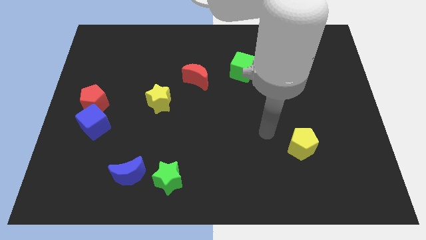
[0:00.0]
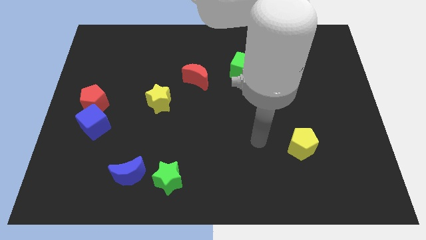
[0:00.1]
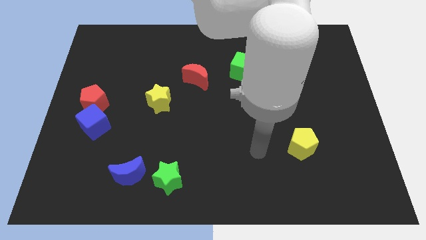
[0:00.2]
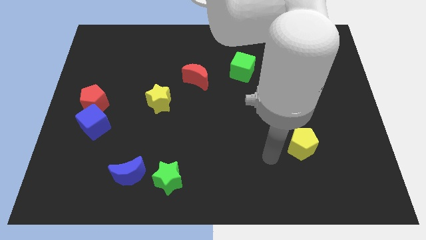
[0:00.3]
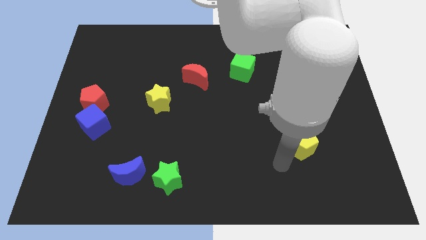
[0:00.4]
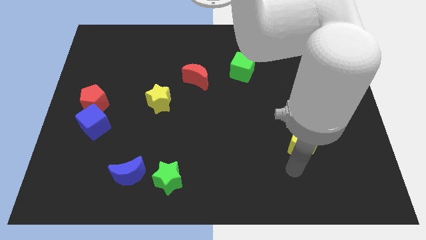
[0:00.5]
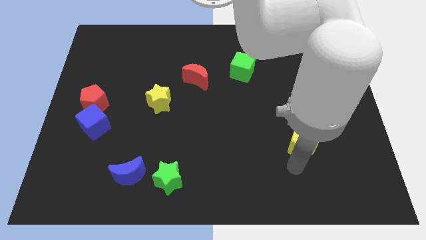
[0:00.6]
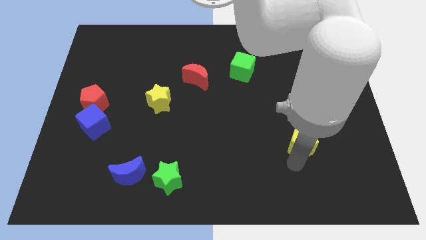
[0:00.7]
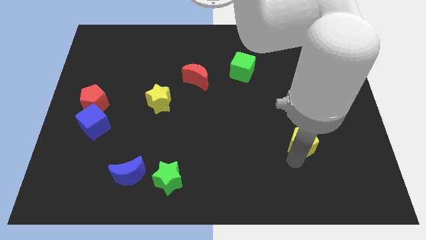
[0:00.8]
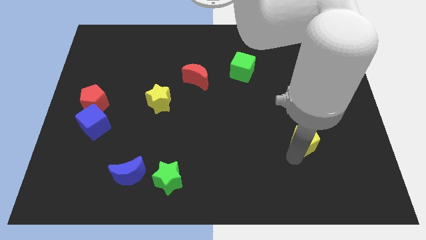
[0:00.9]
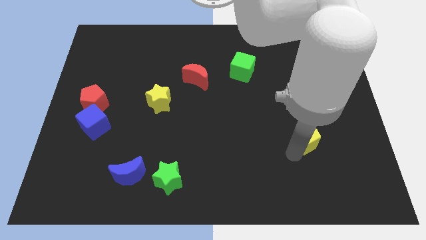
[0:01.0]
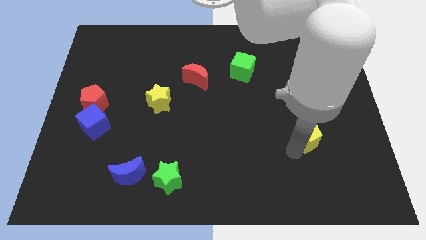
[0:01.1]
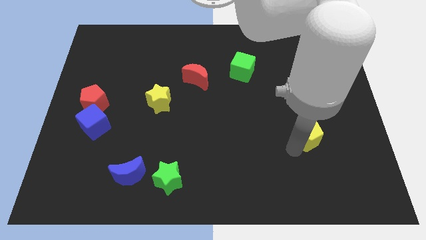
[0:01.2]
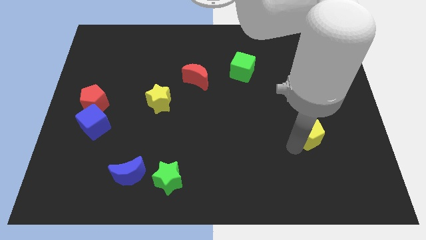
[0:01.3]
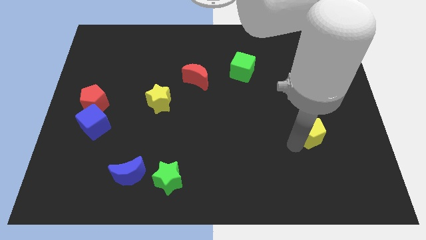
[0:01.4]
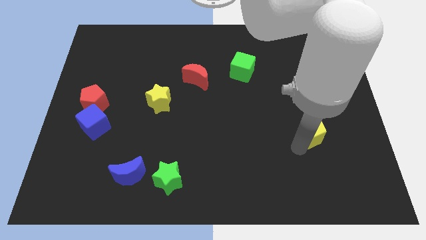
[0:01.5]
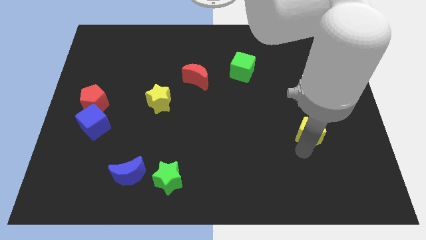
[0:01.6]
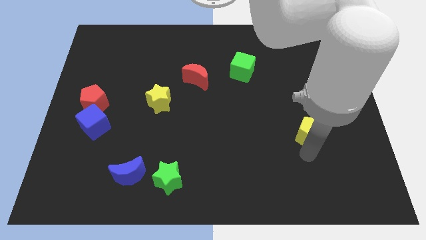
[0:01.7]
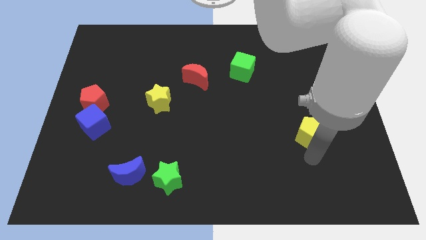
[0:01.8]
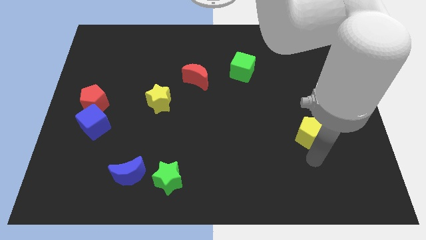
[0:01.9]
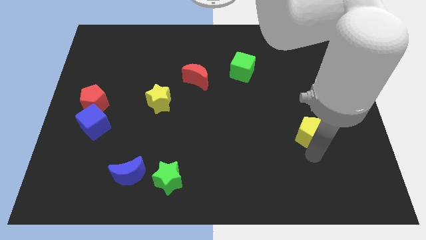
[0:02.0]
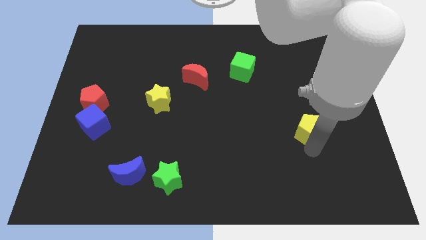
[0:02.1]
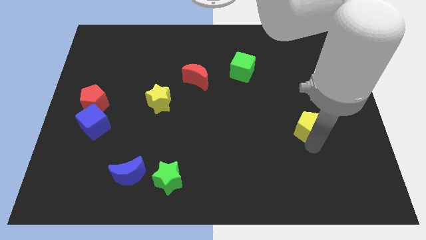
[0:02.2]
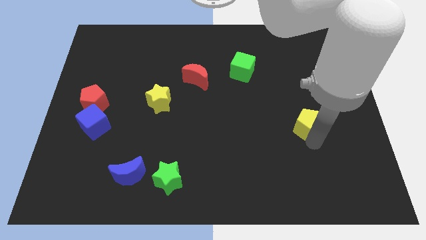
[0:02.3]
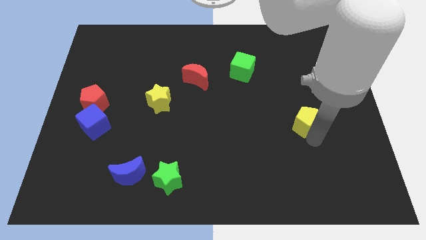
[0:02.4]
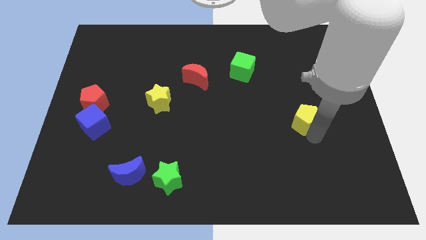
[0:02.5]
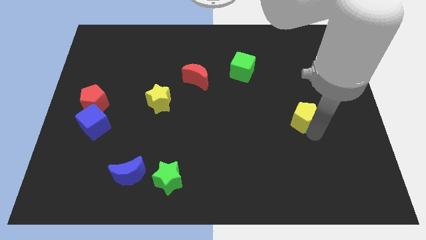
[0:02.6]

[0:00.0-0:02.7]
move the yellow pentagon slightly up

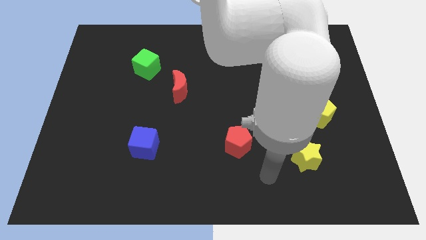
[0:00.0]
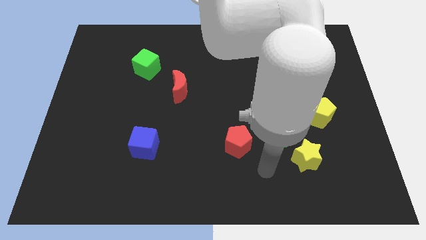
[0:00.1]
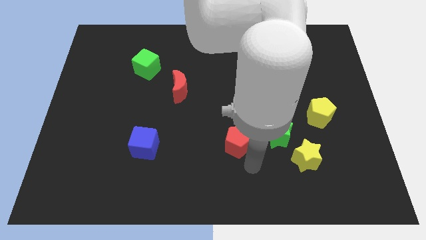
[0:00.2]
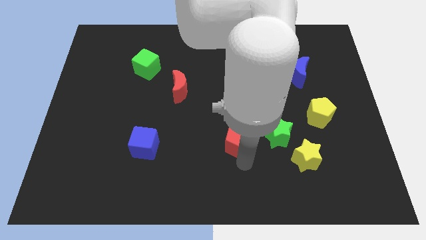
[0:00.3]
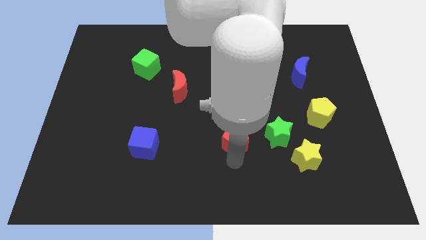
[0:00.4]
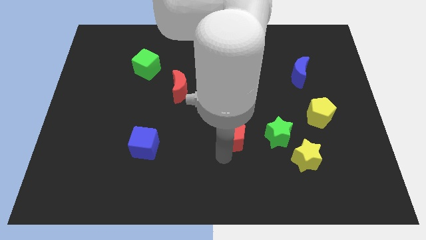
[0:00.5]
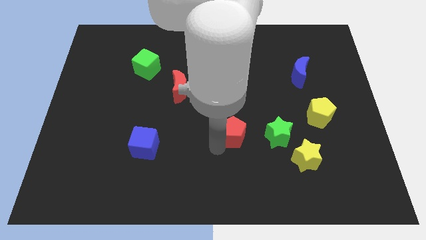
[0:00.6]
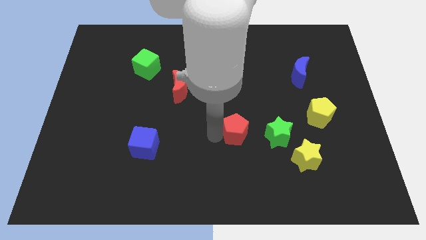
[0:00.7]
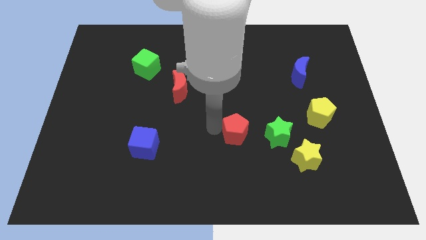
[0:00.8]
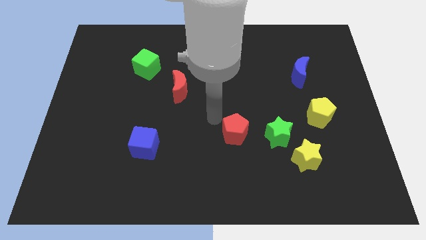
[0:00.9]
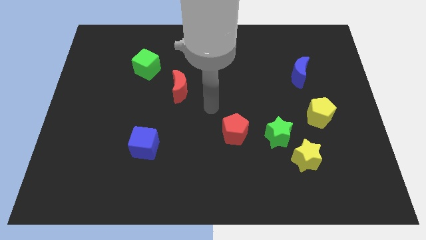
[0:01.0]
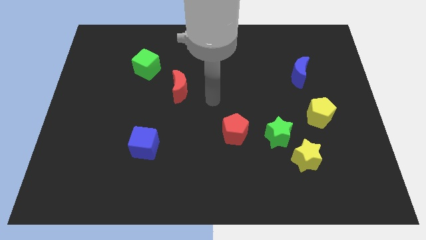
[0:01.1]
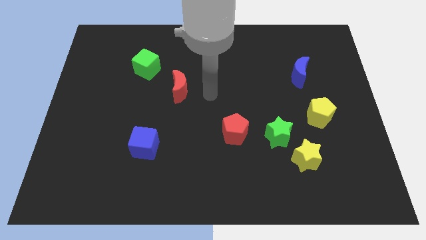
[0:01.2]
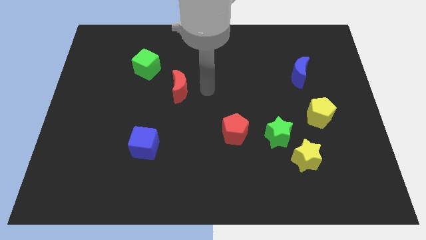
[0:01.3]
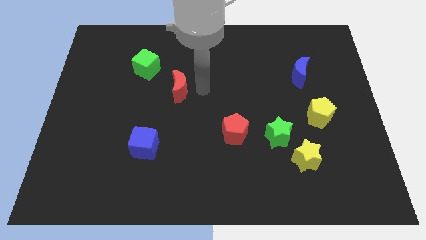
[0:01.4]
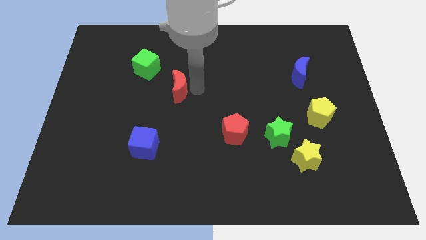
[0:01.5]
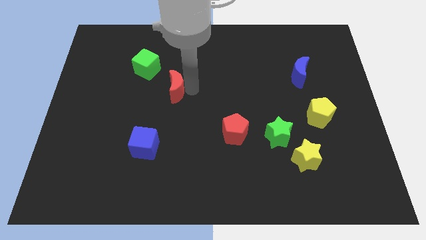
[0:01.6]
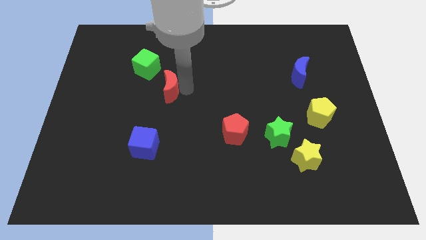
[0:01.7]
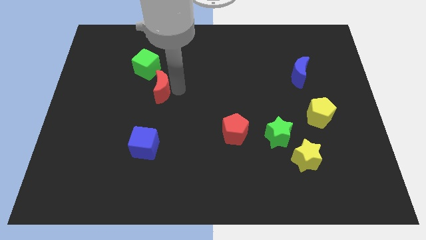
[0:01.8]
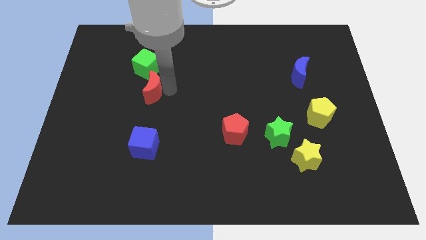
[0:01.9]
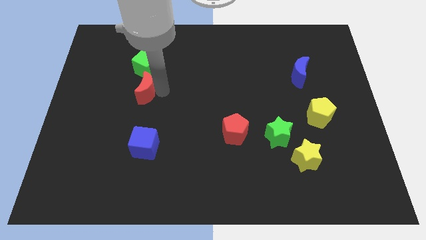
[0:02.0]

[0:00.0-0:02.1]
push the red moon somewhat to the left

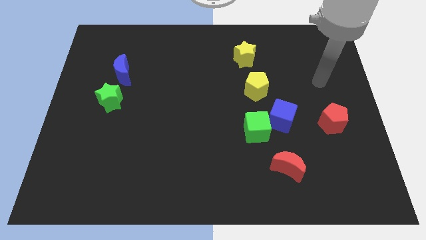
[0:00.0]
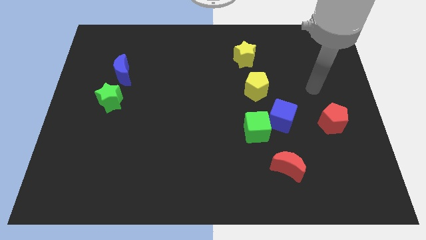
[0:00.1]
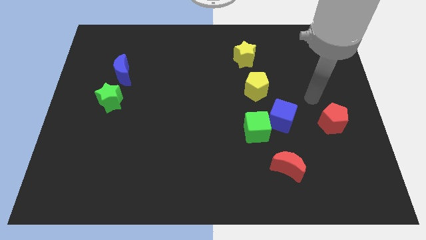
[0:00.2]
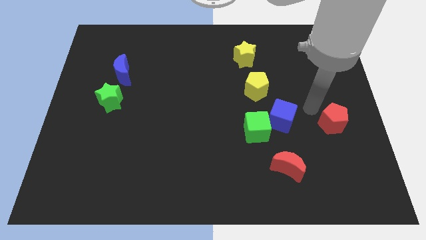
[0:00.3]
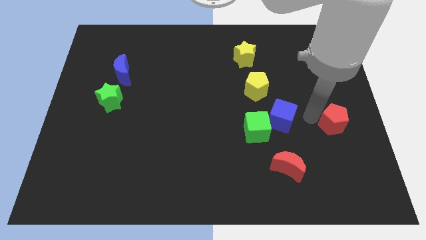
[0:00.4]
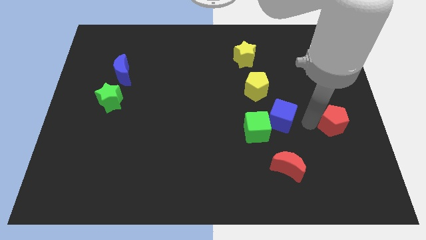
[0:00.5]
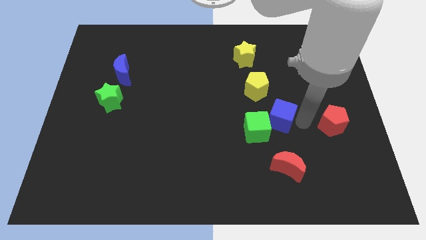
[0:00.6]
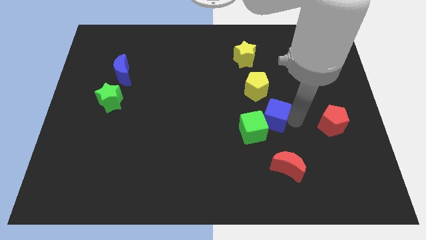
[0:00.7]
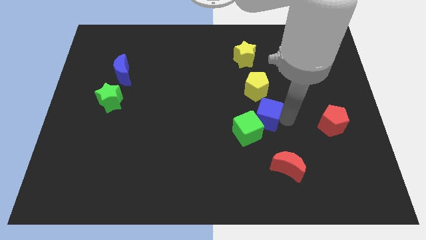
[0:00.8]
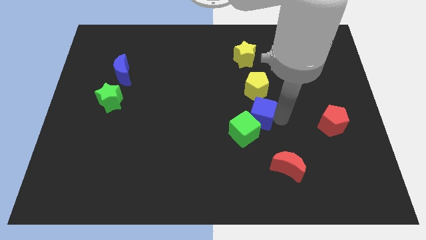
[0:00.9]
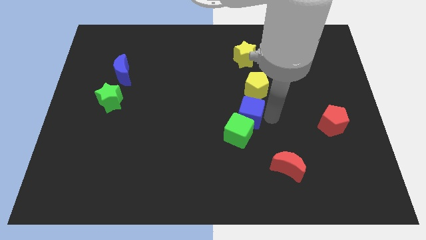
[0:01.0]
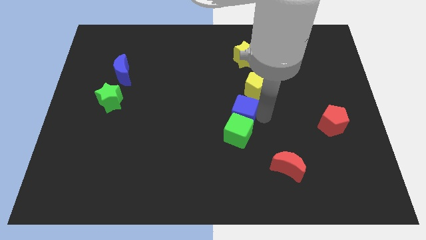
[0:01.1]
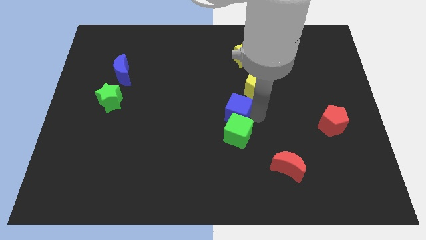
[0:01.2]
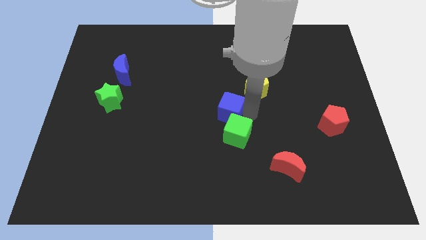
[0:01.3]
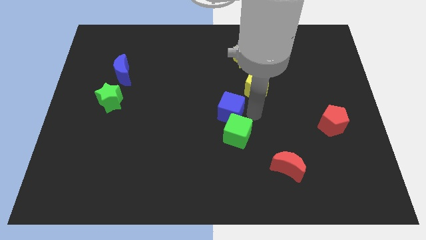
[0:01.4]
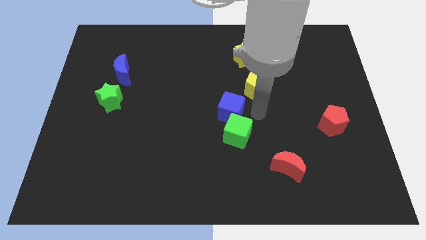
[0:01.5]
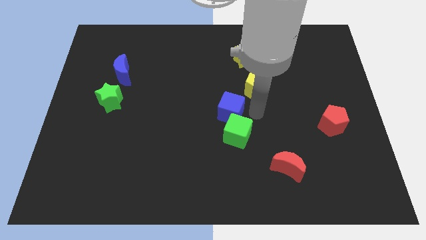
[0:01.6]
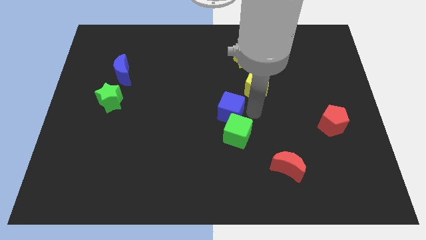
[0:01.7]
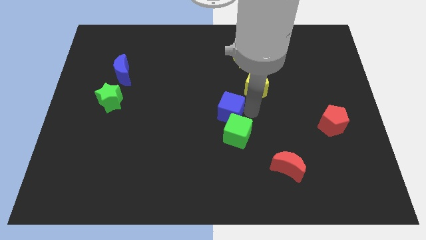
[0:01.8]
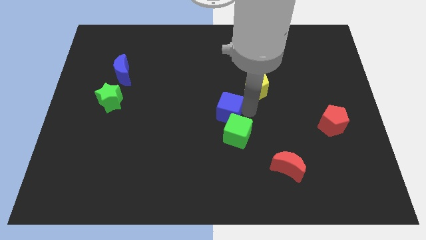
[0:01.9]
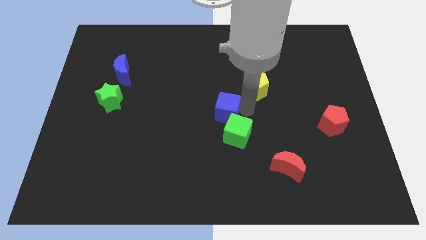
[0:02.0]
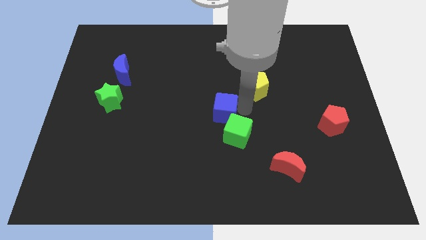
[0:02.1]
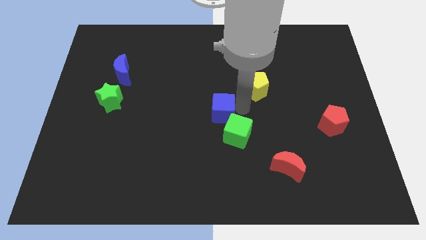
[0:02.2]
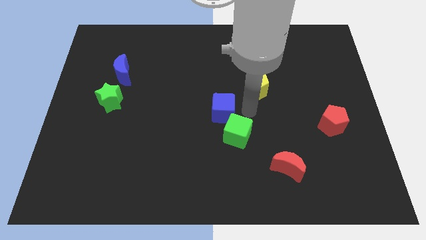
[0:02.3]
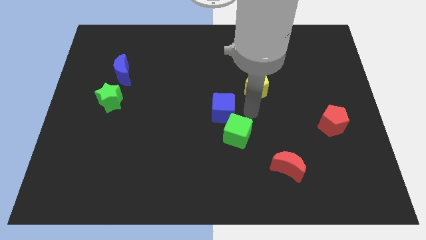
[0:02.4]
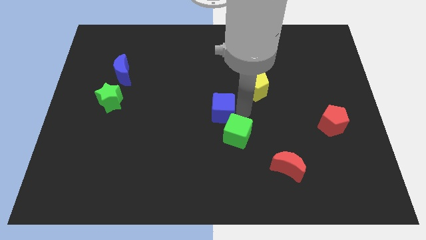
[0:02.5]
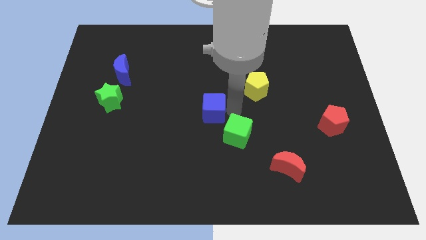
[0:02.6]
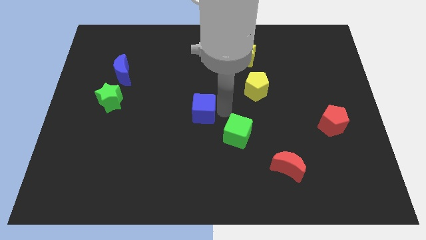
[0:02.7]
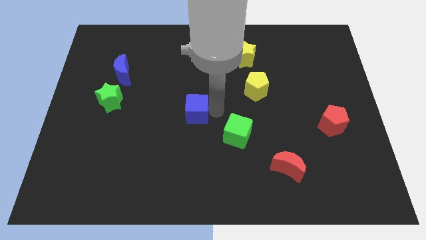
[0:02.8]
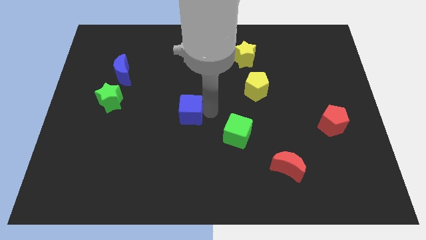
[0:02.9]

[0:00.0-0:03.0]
push the blue cube to the left

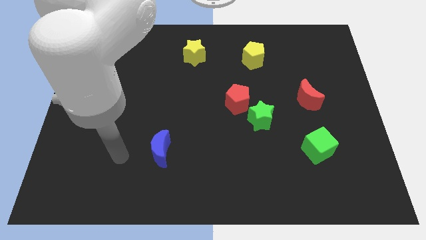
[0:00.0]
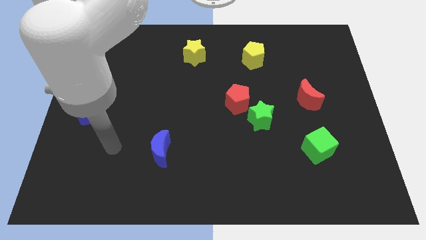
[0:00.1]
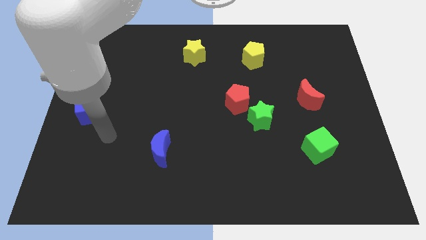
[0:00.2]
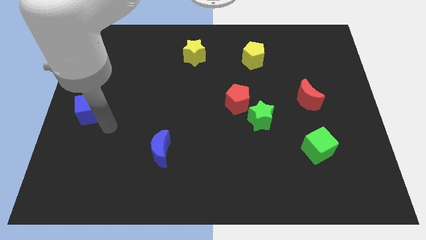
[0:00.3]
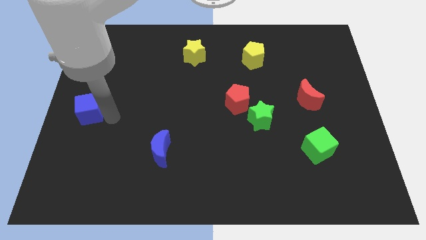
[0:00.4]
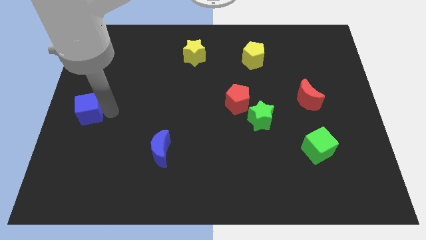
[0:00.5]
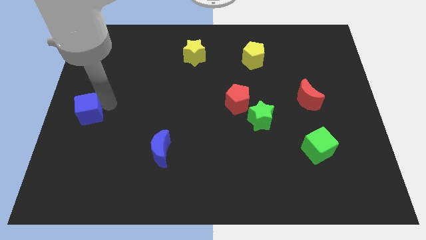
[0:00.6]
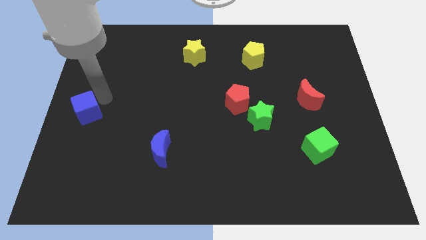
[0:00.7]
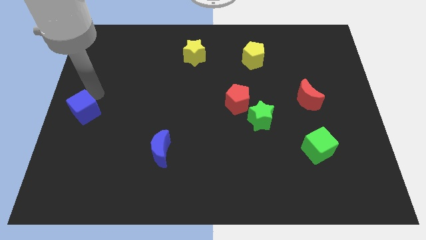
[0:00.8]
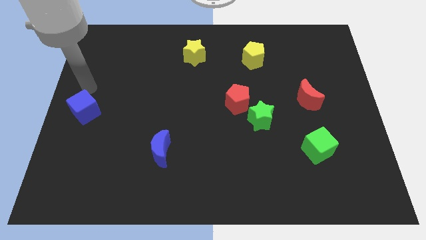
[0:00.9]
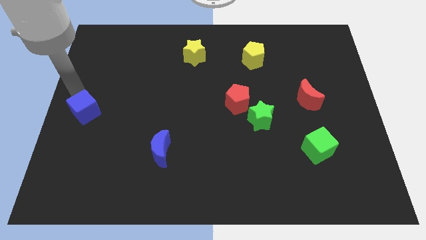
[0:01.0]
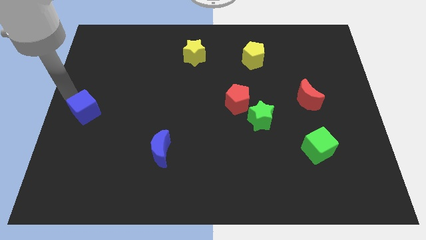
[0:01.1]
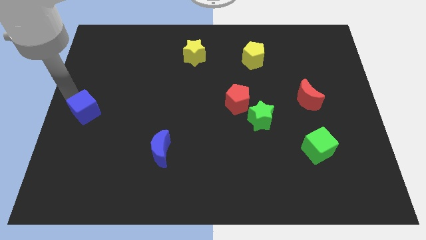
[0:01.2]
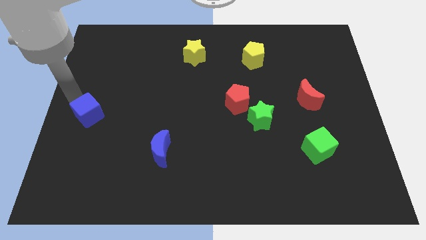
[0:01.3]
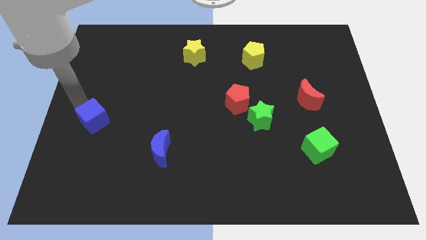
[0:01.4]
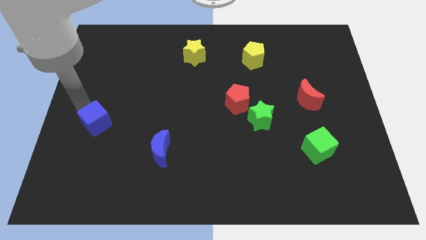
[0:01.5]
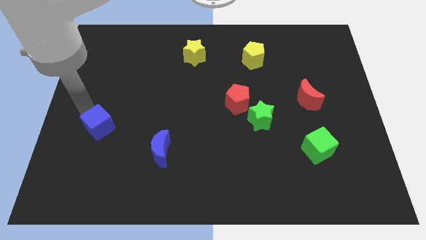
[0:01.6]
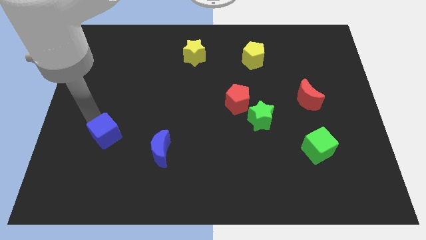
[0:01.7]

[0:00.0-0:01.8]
push the blue cube downwards and to the right slightly
